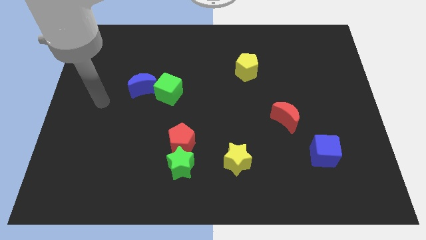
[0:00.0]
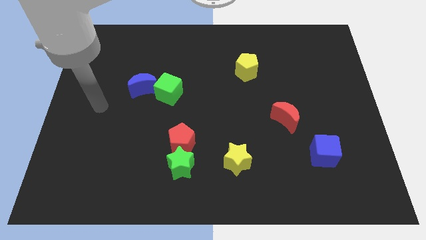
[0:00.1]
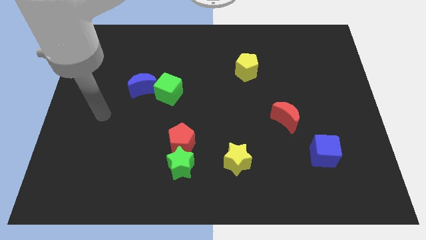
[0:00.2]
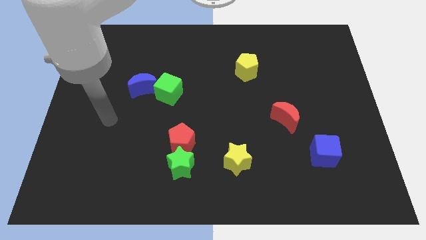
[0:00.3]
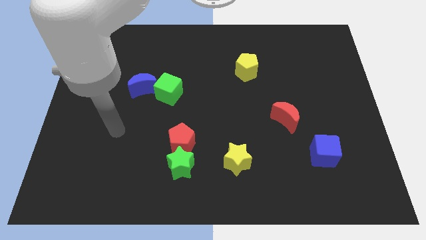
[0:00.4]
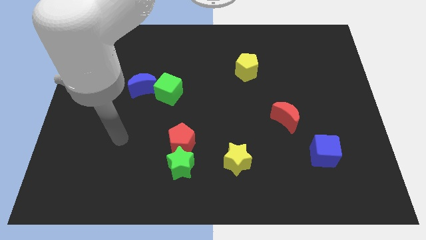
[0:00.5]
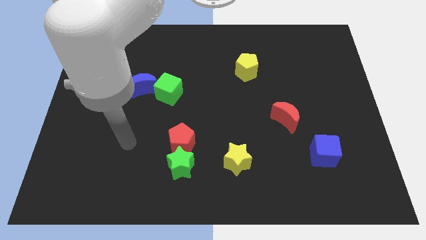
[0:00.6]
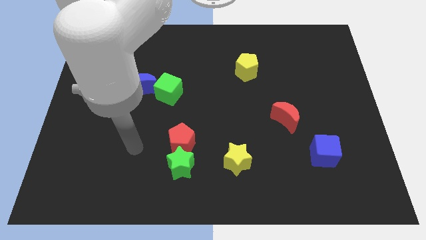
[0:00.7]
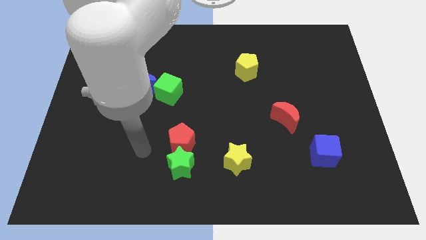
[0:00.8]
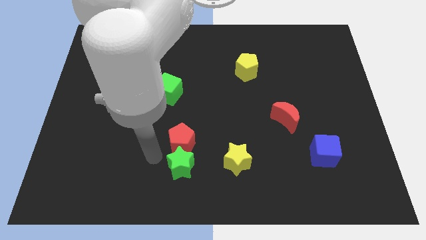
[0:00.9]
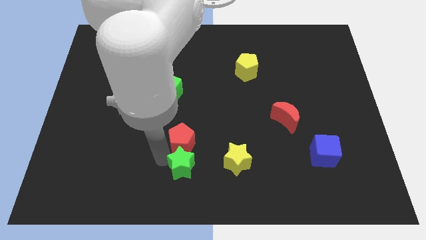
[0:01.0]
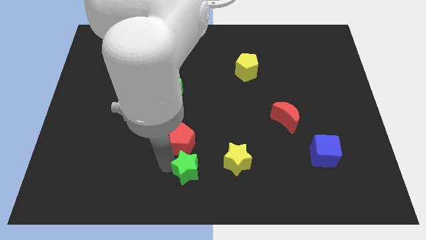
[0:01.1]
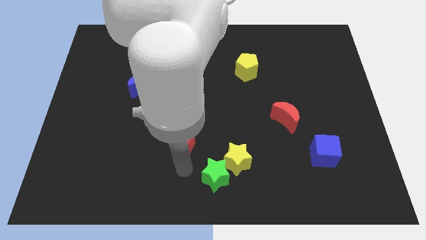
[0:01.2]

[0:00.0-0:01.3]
pull the red pentagon apart from the green star

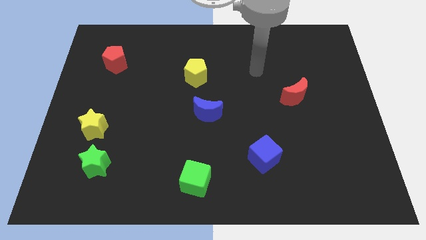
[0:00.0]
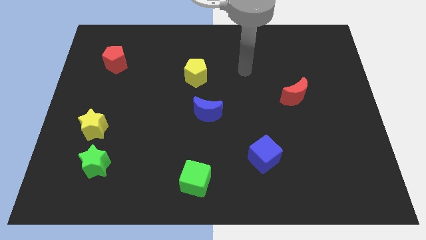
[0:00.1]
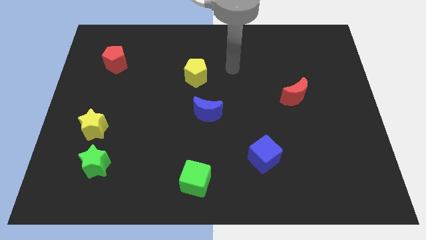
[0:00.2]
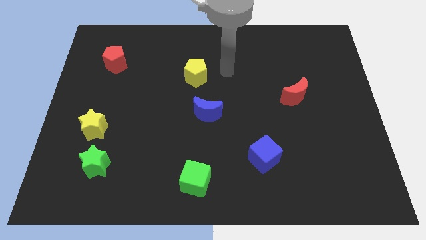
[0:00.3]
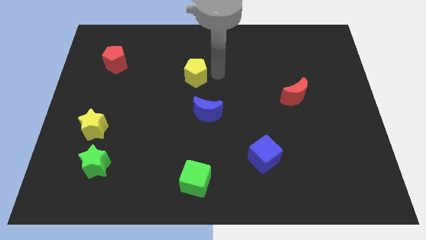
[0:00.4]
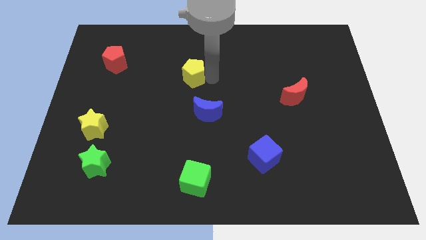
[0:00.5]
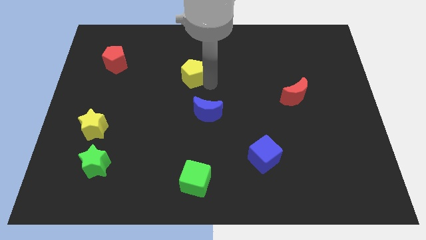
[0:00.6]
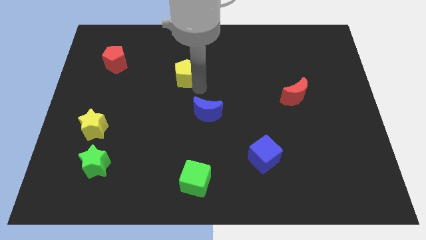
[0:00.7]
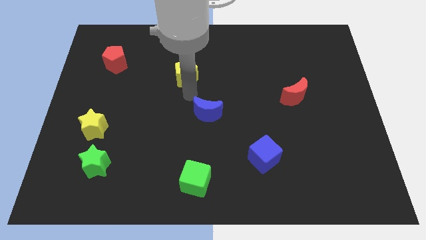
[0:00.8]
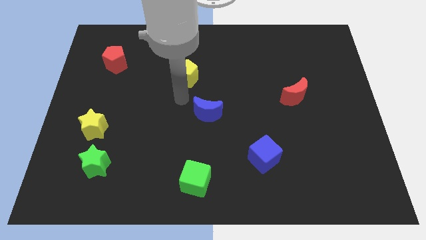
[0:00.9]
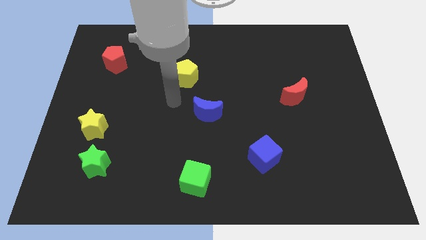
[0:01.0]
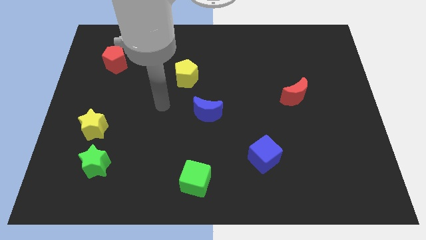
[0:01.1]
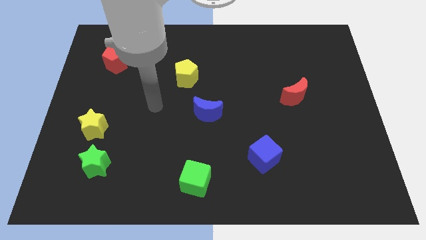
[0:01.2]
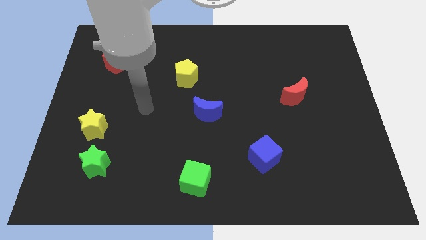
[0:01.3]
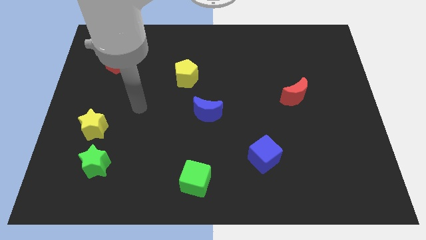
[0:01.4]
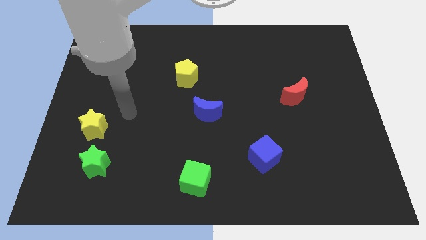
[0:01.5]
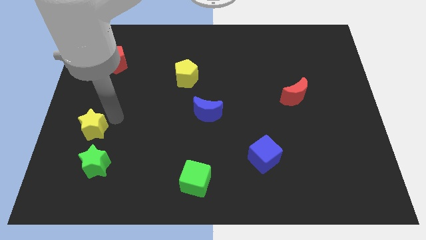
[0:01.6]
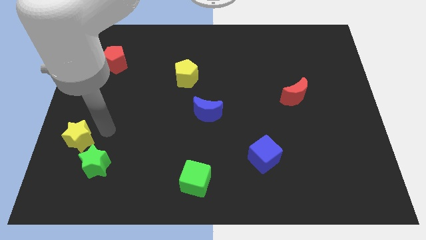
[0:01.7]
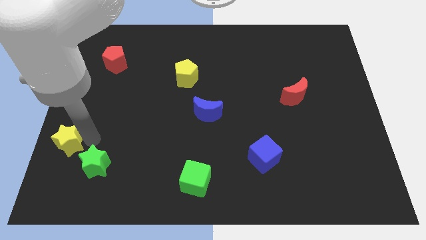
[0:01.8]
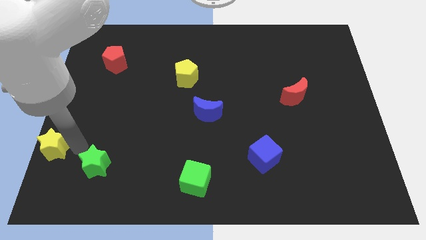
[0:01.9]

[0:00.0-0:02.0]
move the green star away from the yellow star

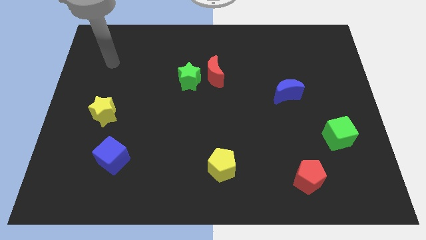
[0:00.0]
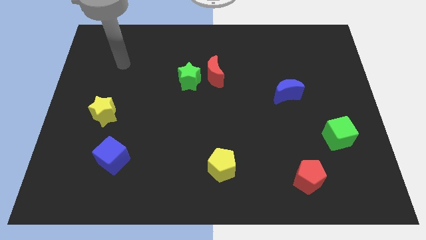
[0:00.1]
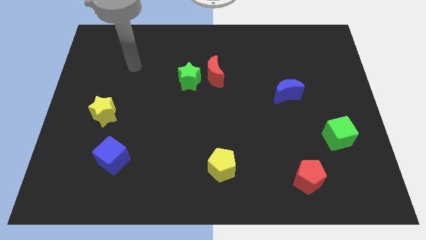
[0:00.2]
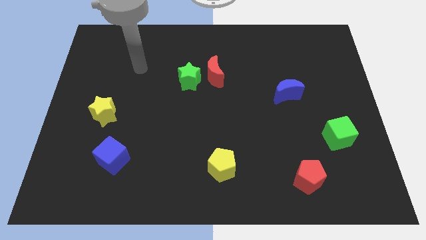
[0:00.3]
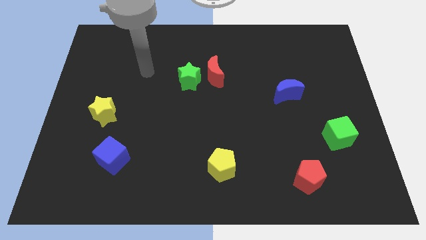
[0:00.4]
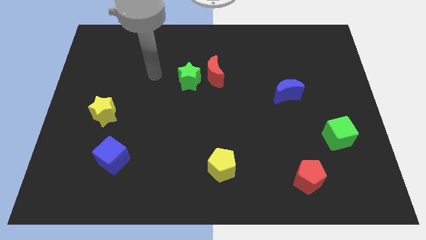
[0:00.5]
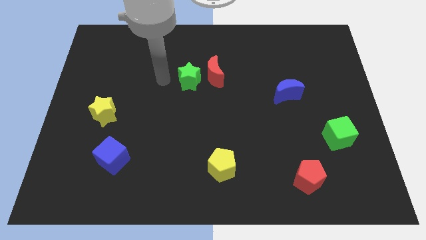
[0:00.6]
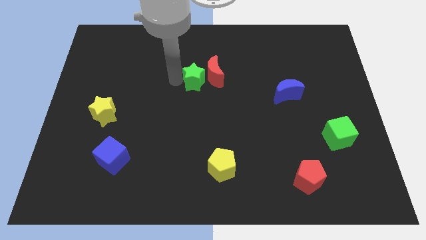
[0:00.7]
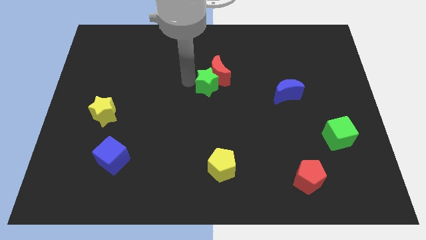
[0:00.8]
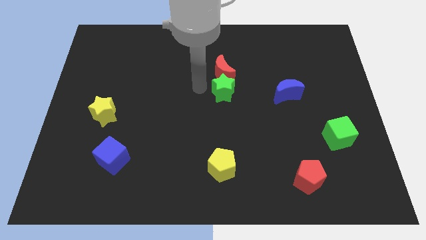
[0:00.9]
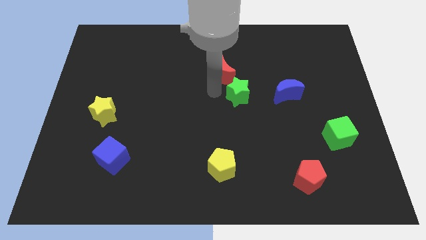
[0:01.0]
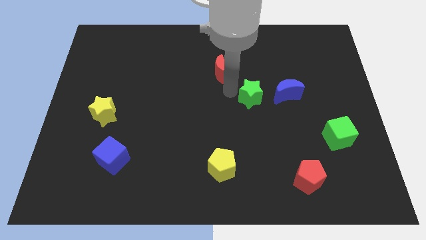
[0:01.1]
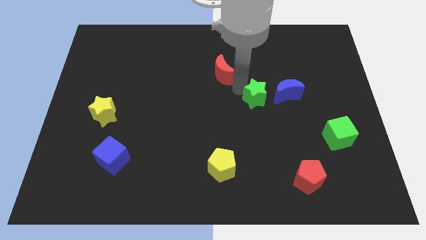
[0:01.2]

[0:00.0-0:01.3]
separate the red moon from the green star

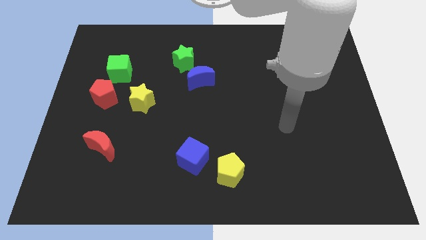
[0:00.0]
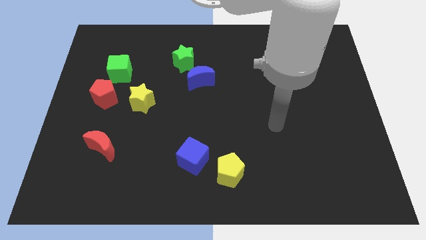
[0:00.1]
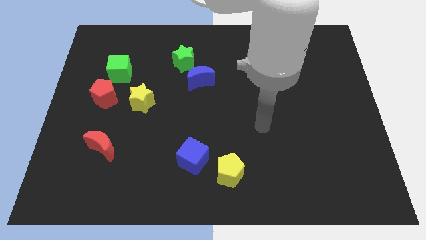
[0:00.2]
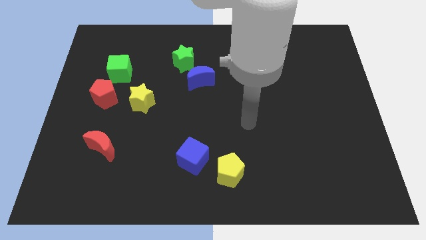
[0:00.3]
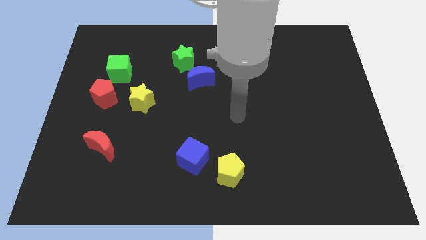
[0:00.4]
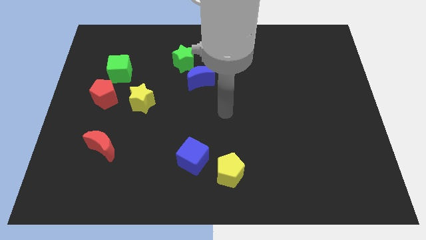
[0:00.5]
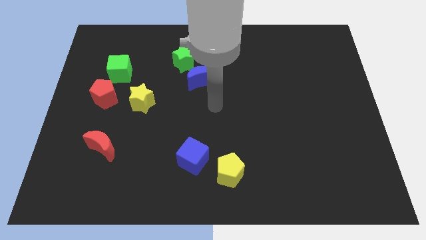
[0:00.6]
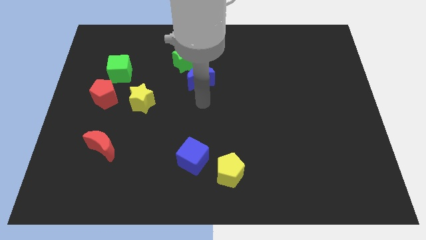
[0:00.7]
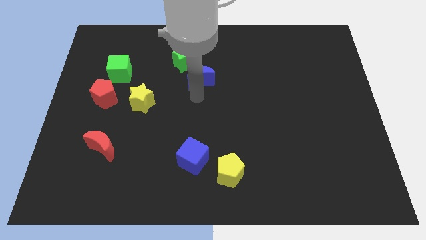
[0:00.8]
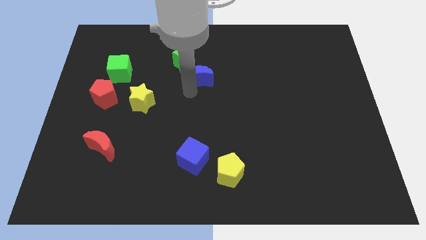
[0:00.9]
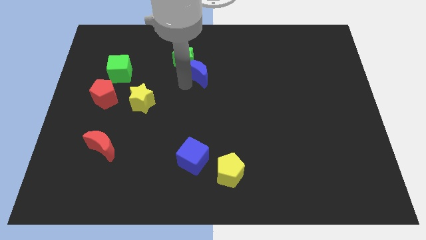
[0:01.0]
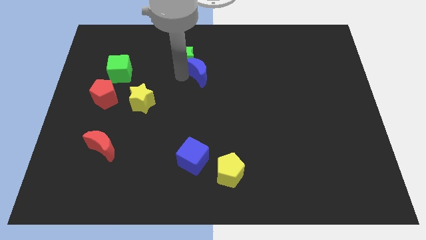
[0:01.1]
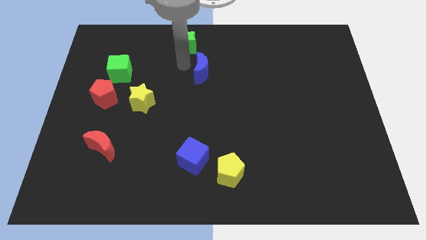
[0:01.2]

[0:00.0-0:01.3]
separate the blue moon from the green star

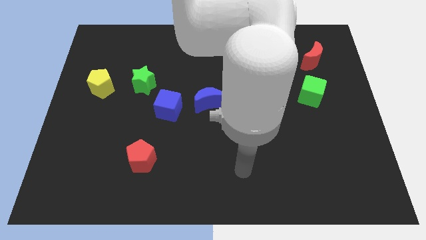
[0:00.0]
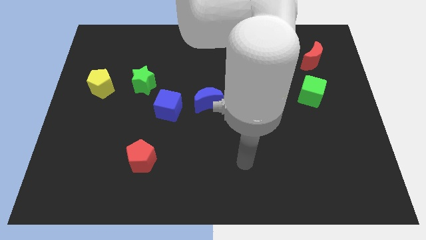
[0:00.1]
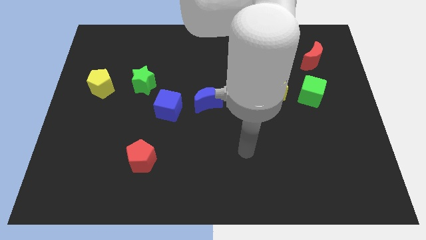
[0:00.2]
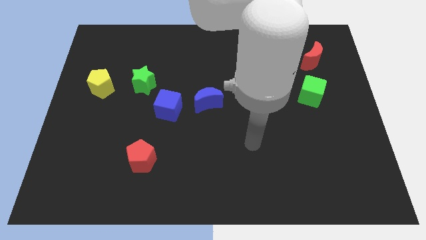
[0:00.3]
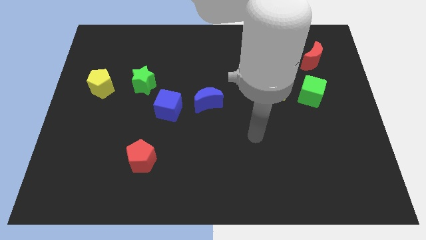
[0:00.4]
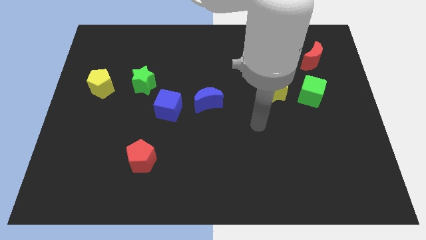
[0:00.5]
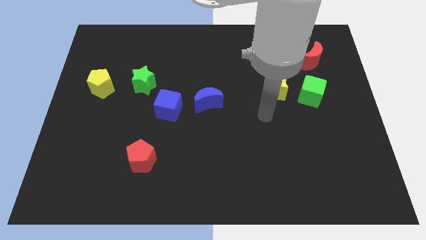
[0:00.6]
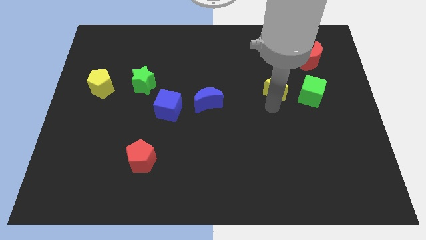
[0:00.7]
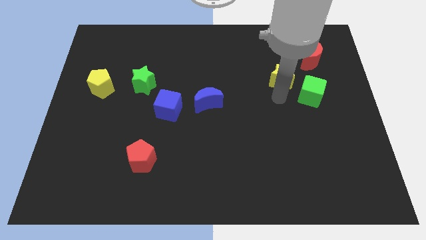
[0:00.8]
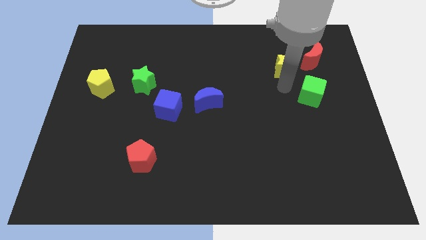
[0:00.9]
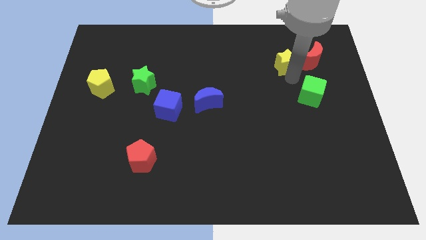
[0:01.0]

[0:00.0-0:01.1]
pull the green cube apart from the yellow star

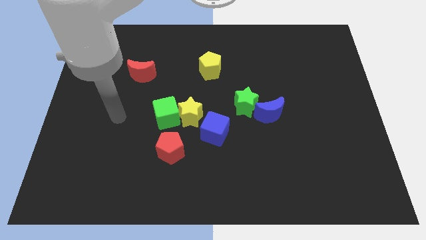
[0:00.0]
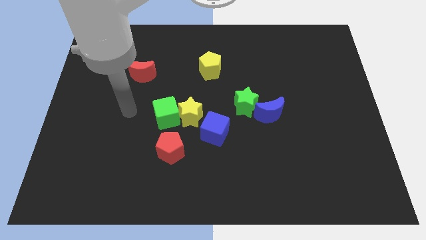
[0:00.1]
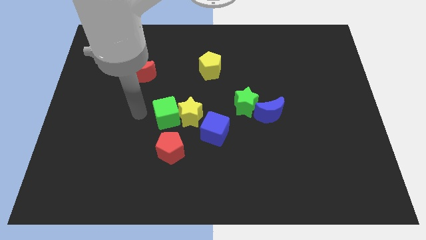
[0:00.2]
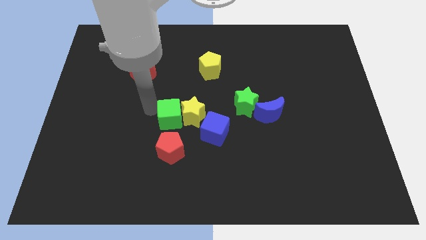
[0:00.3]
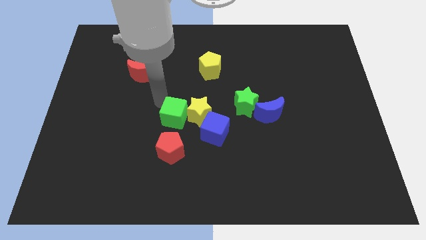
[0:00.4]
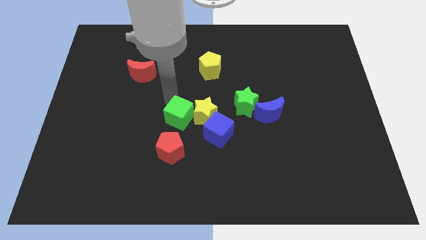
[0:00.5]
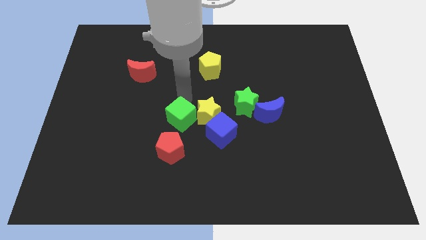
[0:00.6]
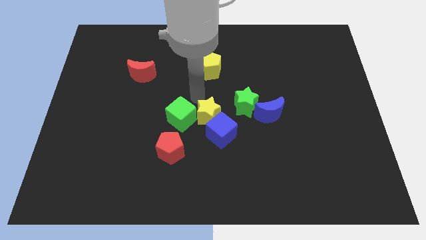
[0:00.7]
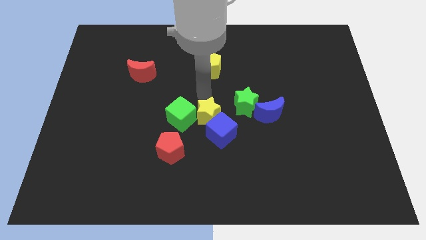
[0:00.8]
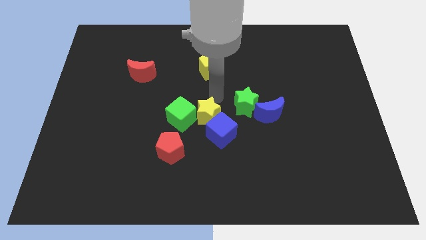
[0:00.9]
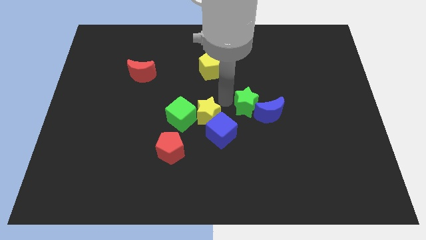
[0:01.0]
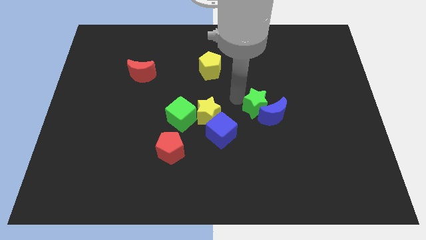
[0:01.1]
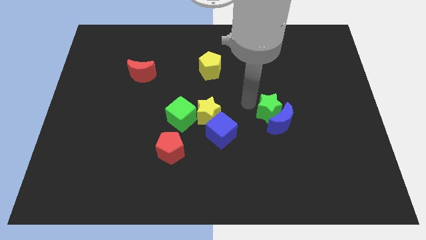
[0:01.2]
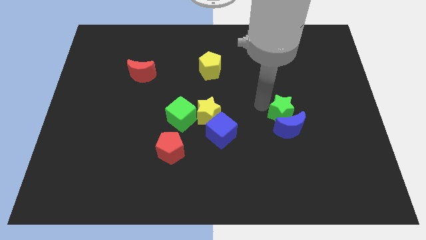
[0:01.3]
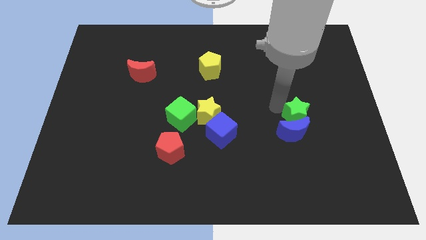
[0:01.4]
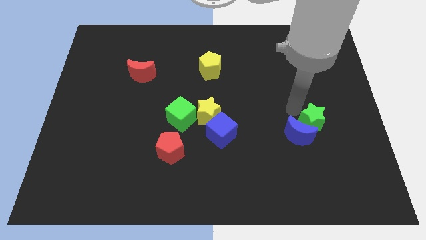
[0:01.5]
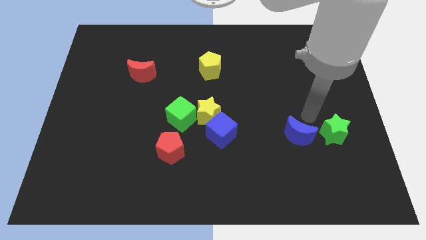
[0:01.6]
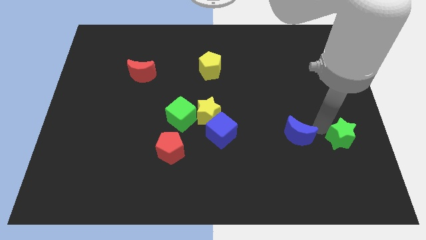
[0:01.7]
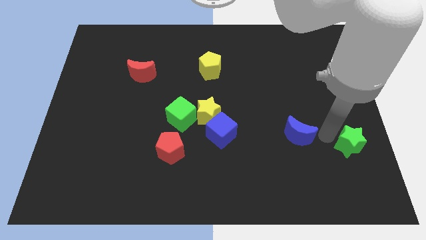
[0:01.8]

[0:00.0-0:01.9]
pull the blue moon apart from the green star

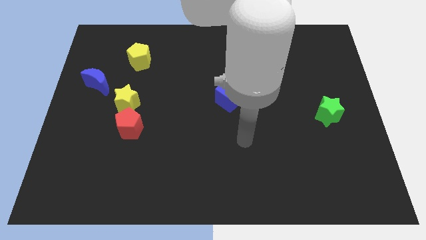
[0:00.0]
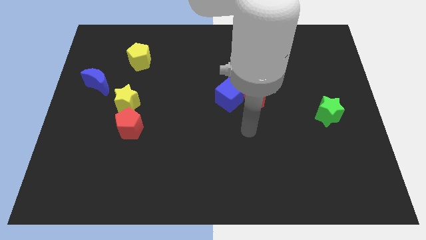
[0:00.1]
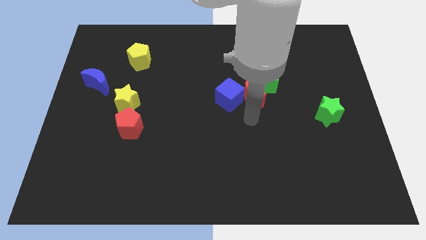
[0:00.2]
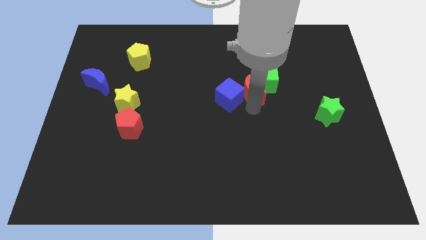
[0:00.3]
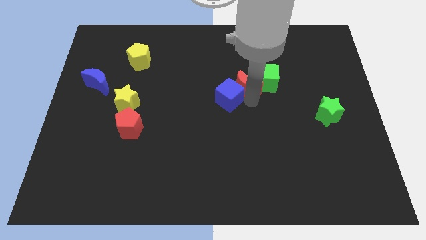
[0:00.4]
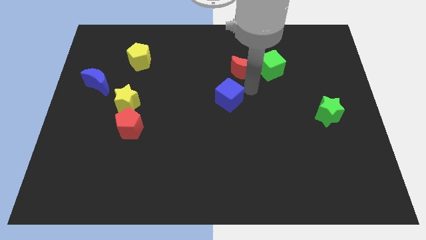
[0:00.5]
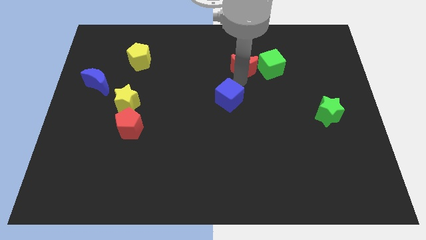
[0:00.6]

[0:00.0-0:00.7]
separate the blue cube from the red moon
